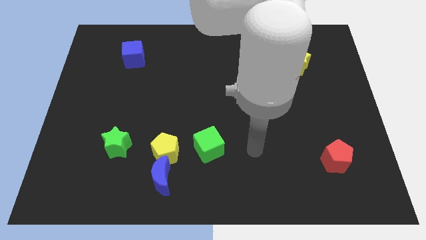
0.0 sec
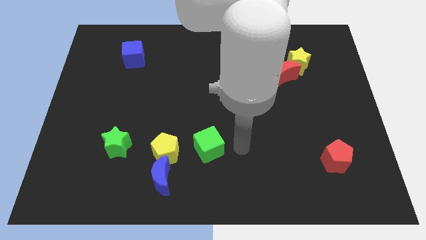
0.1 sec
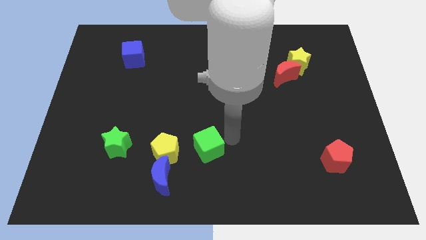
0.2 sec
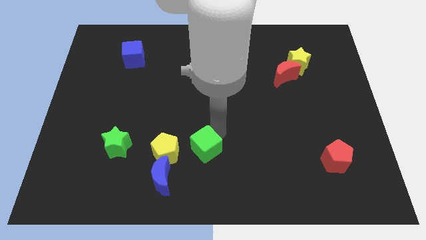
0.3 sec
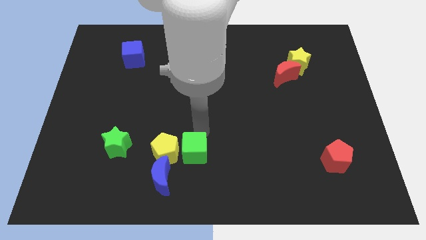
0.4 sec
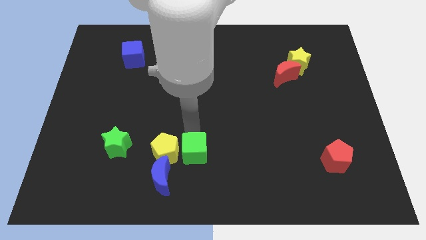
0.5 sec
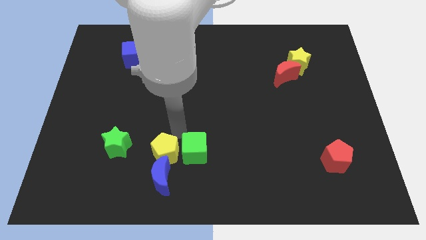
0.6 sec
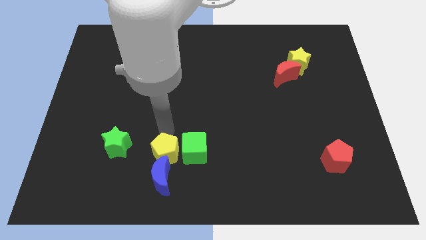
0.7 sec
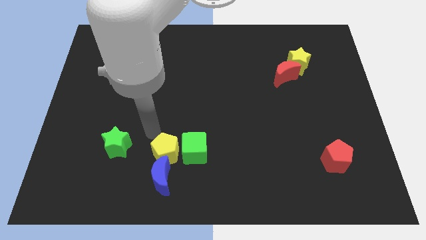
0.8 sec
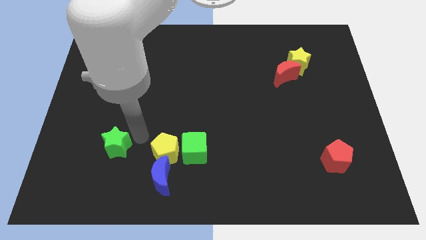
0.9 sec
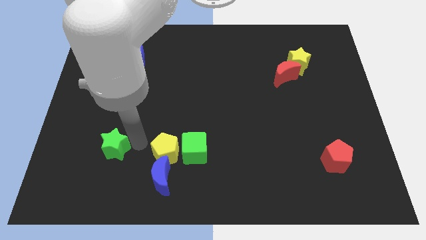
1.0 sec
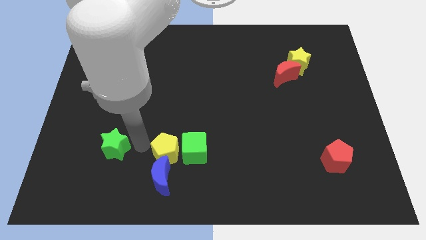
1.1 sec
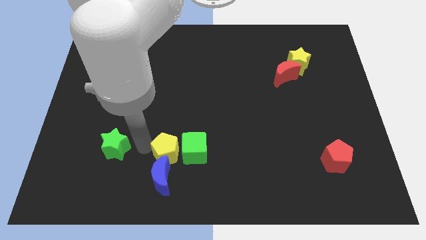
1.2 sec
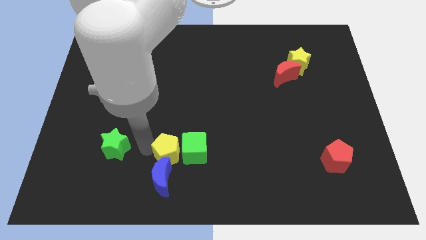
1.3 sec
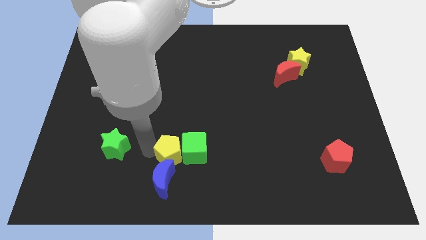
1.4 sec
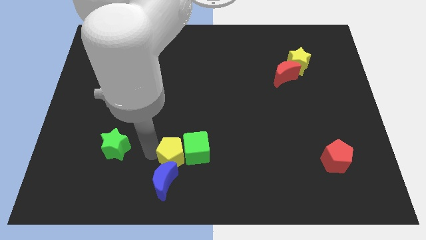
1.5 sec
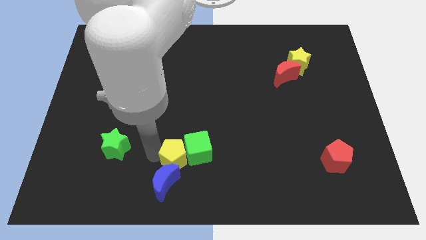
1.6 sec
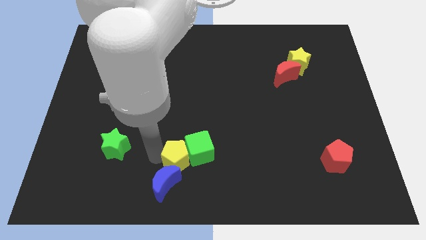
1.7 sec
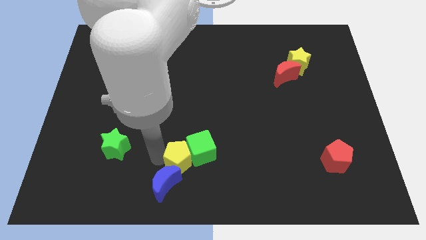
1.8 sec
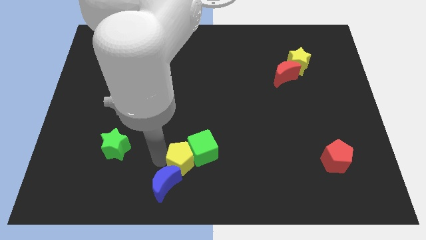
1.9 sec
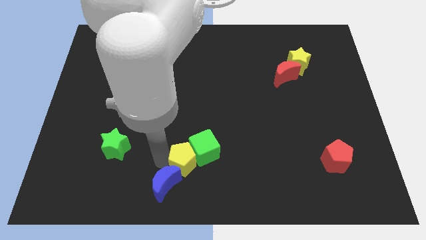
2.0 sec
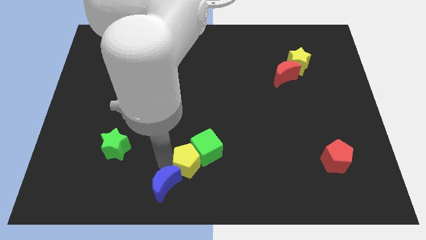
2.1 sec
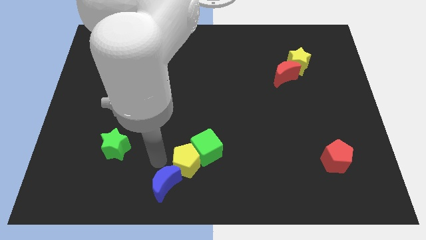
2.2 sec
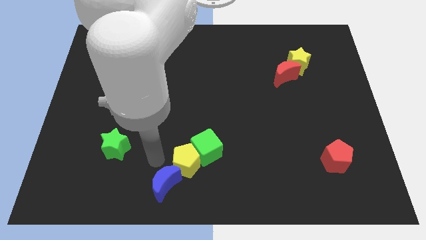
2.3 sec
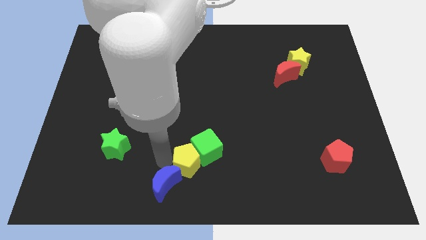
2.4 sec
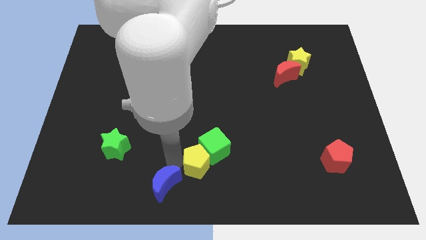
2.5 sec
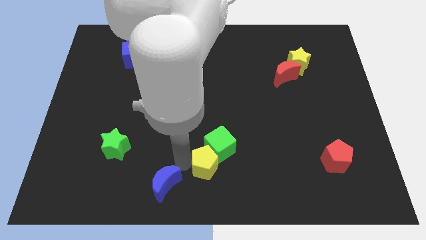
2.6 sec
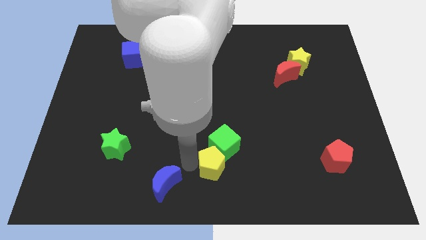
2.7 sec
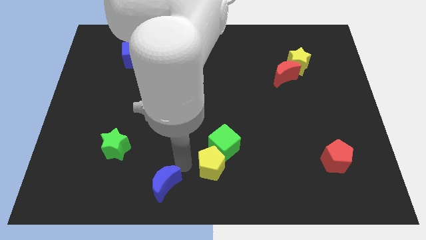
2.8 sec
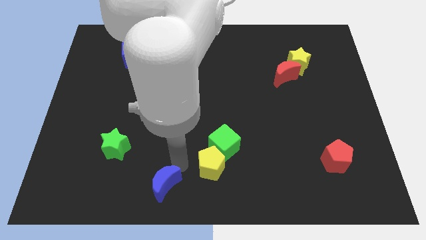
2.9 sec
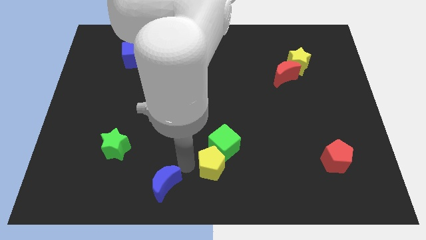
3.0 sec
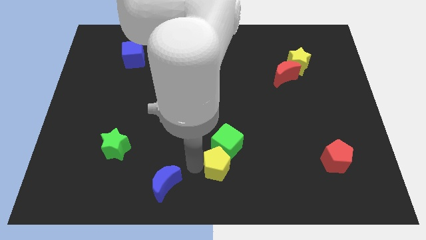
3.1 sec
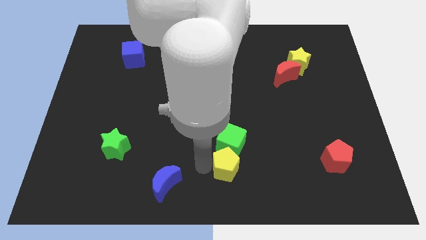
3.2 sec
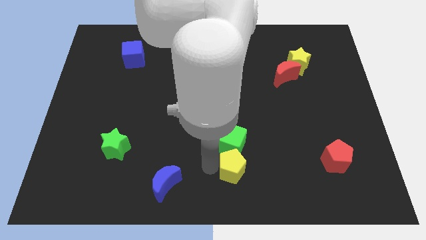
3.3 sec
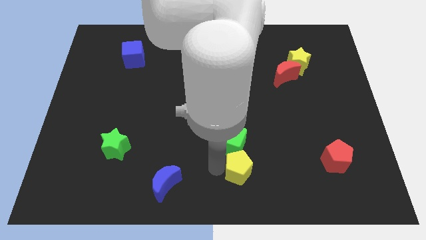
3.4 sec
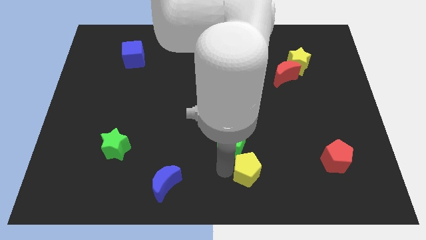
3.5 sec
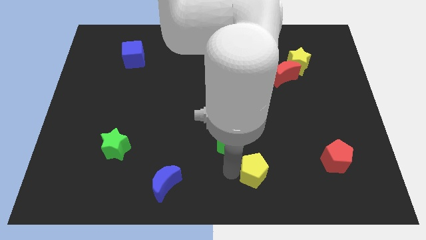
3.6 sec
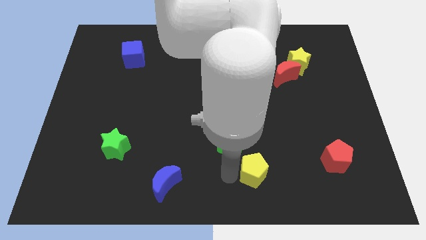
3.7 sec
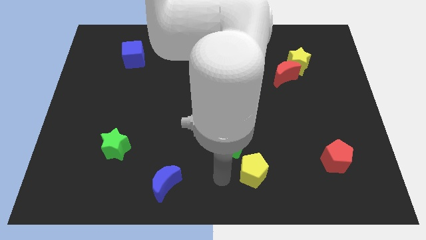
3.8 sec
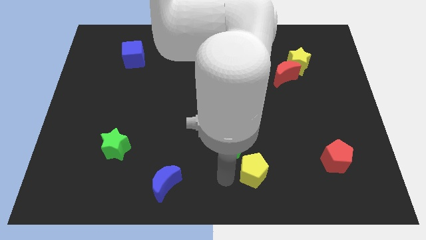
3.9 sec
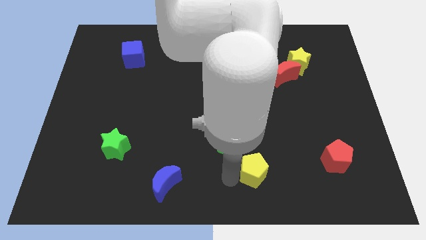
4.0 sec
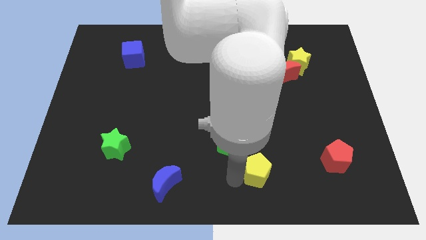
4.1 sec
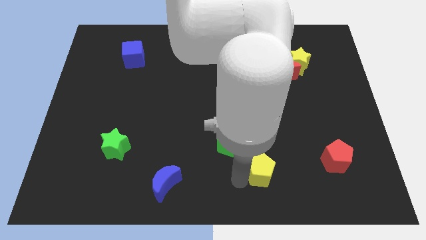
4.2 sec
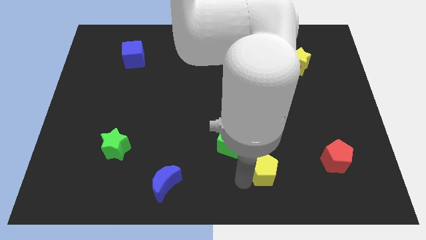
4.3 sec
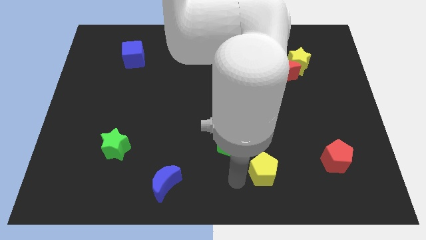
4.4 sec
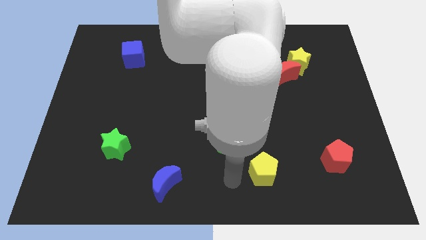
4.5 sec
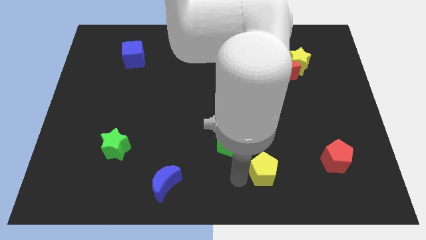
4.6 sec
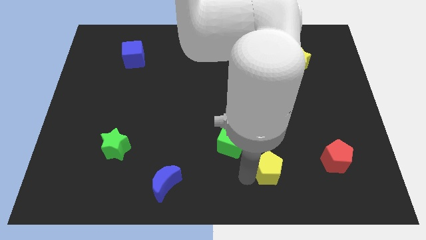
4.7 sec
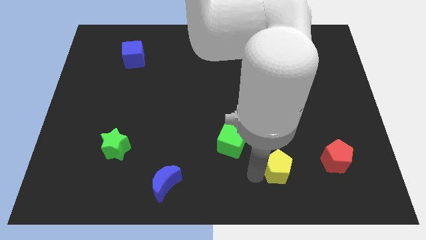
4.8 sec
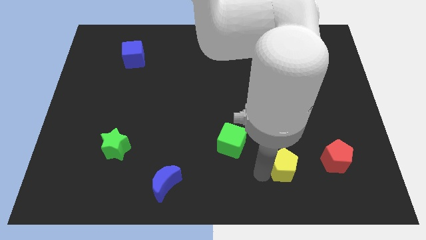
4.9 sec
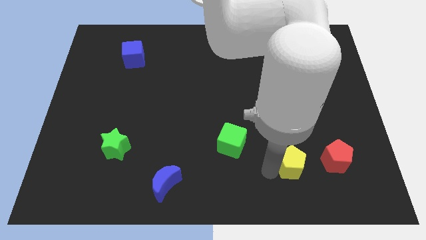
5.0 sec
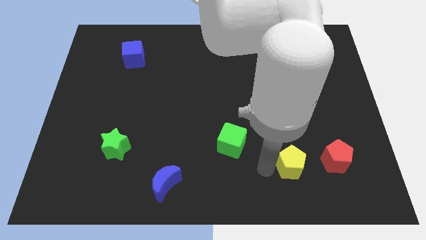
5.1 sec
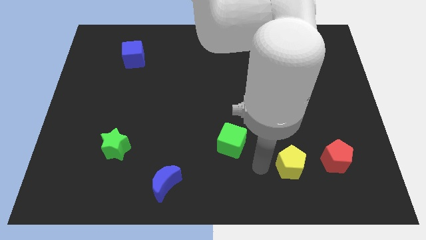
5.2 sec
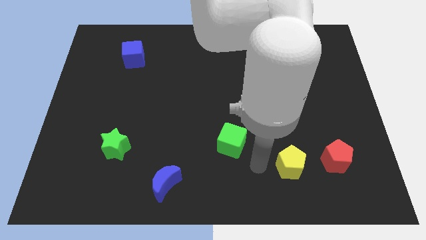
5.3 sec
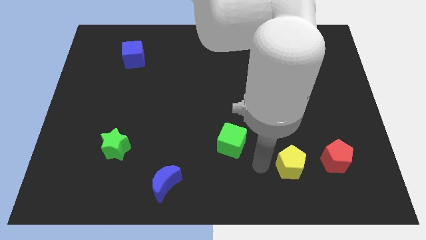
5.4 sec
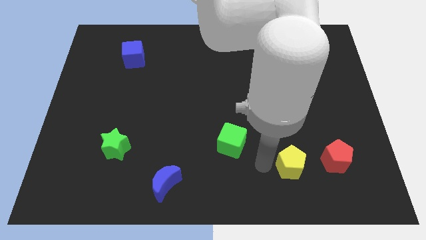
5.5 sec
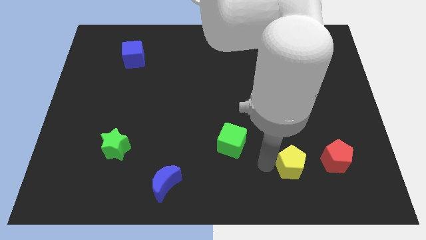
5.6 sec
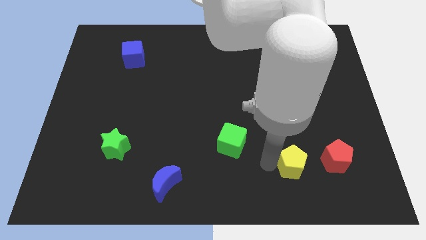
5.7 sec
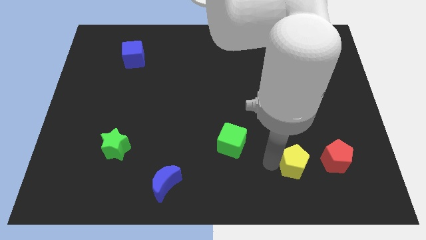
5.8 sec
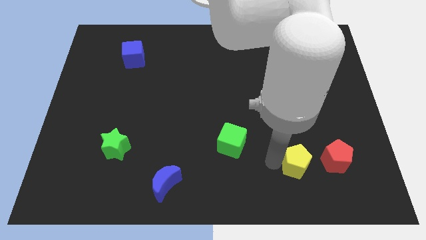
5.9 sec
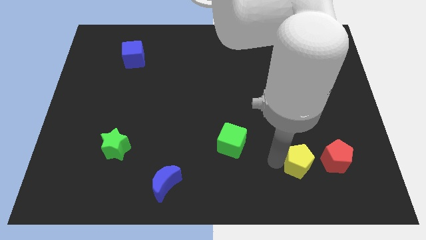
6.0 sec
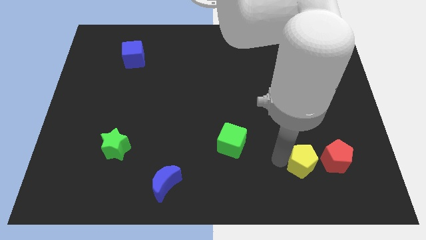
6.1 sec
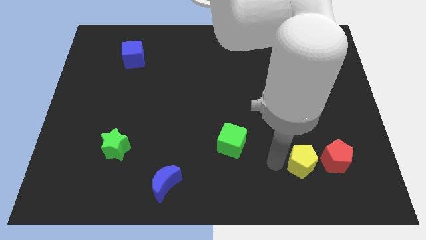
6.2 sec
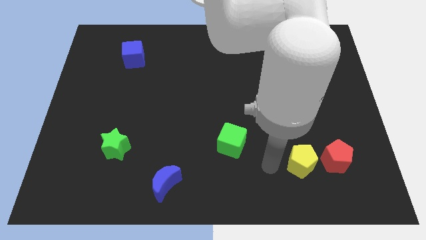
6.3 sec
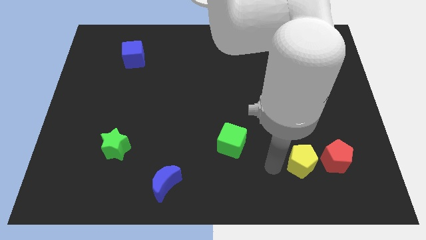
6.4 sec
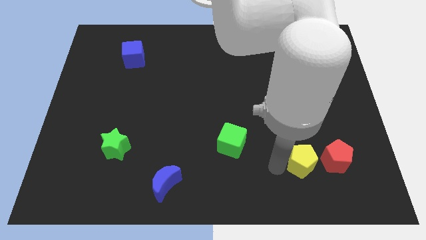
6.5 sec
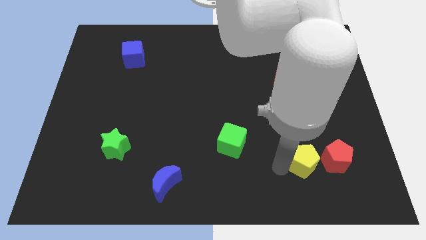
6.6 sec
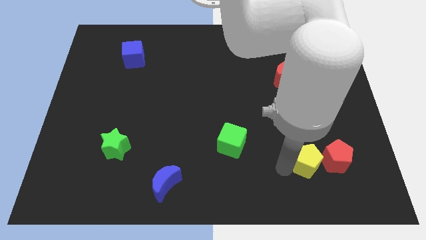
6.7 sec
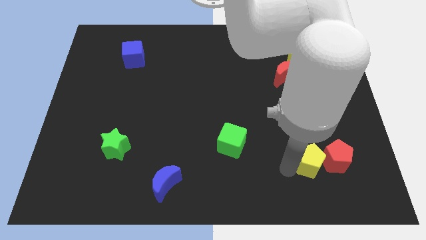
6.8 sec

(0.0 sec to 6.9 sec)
push the yellow pentagon close to the red pentagon
